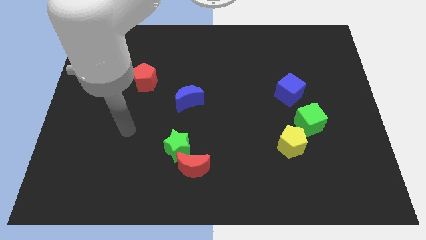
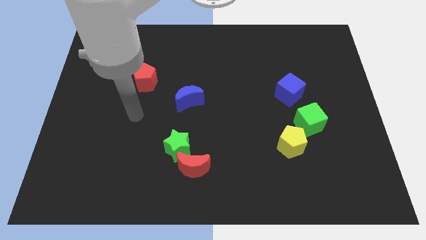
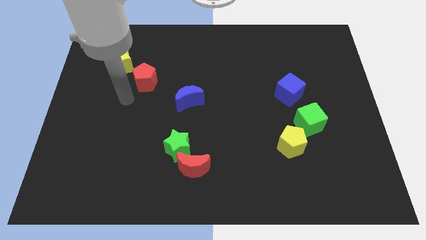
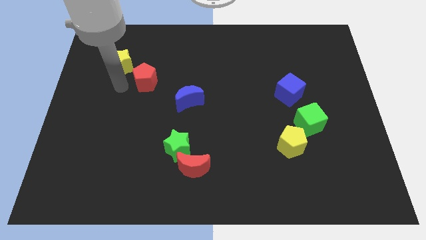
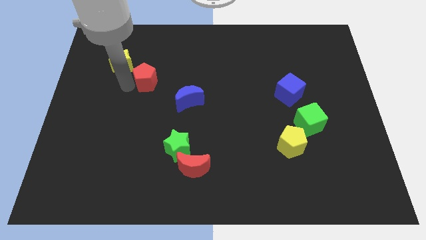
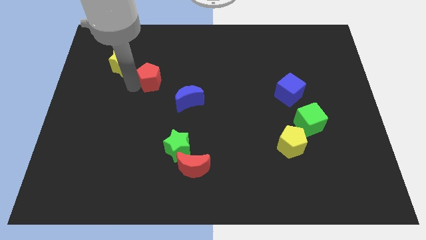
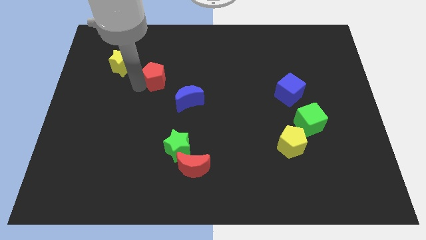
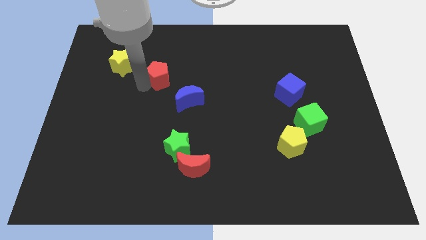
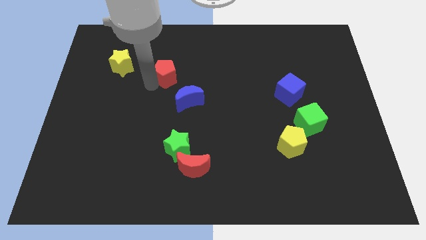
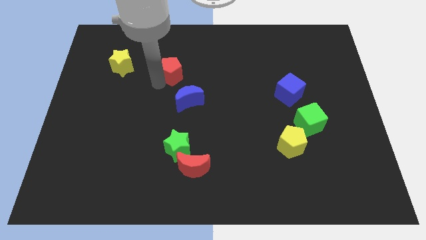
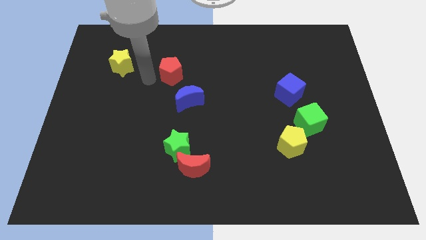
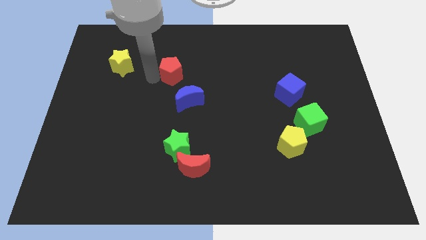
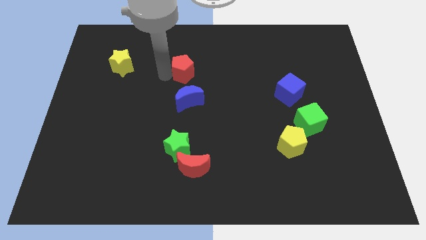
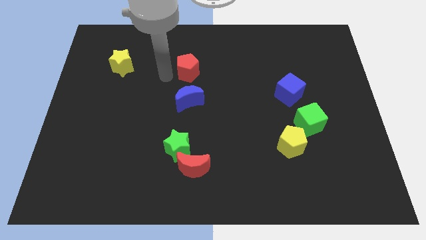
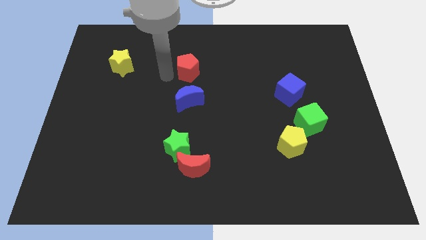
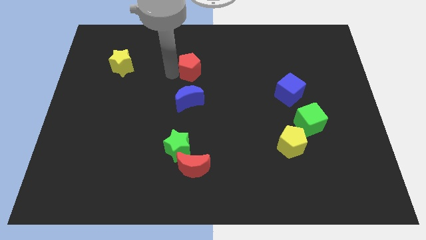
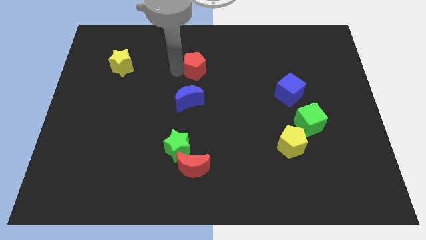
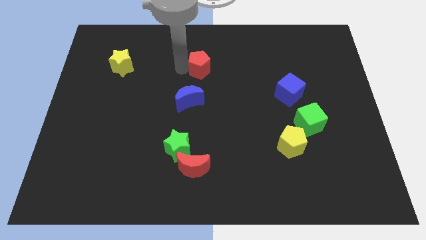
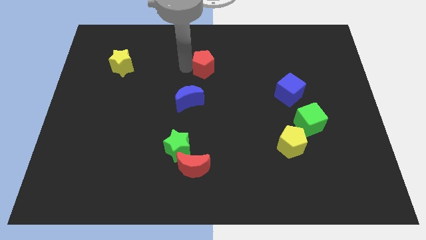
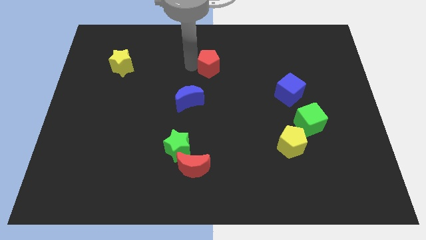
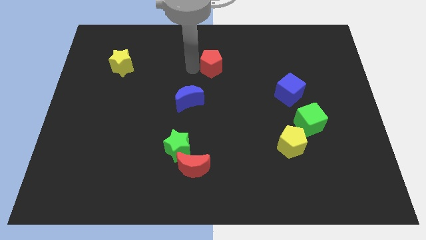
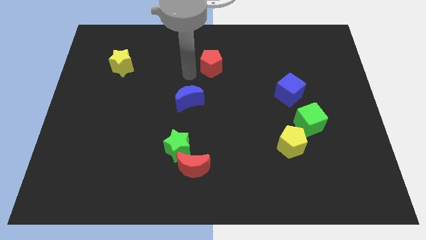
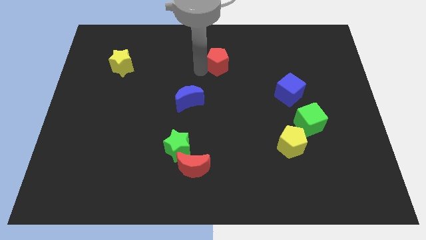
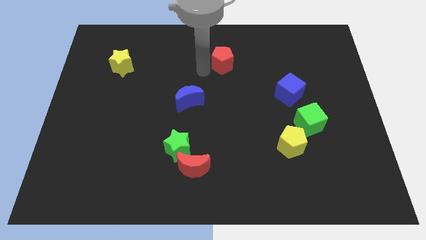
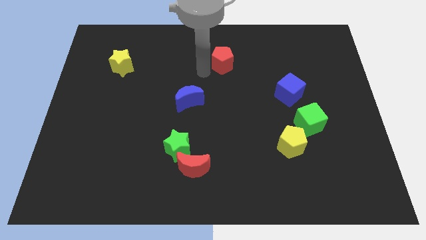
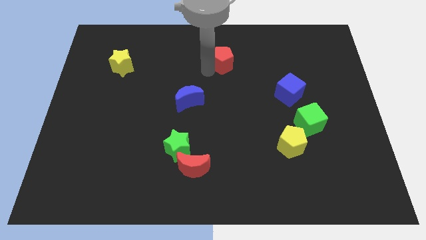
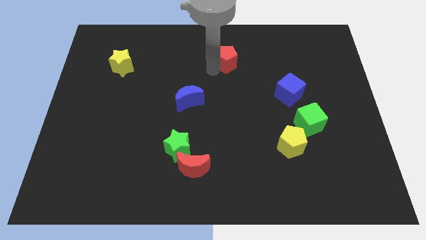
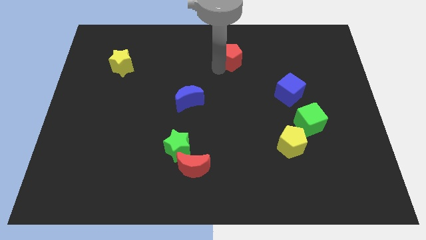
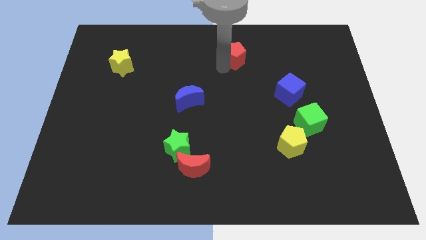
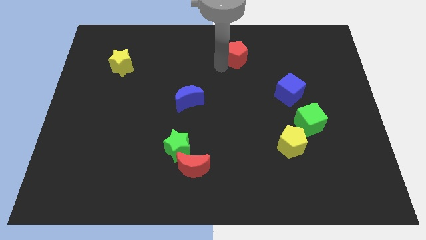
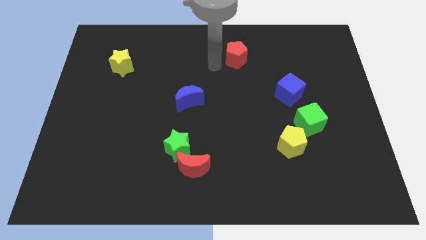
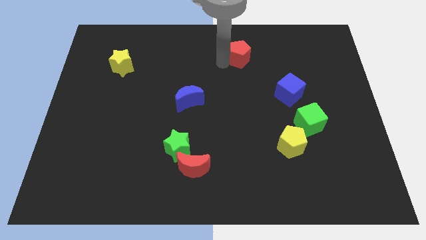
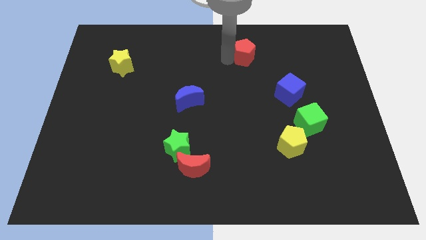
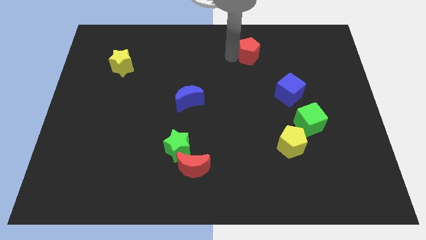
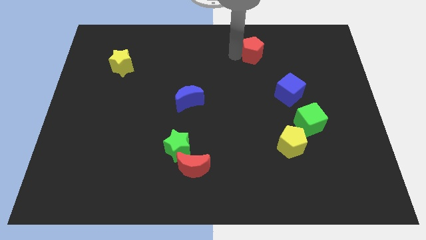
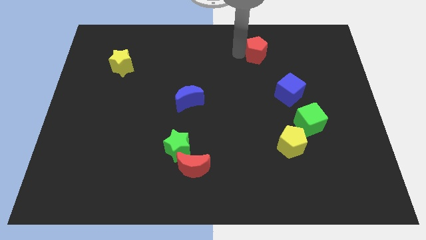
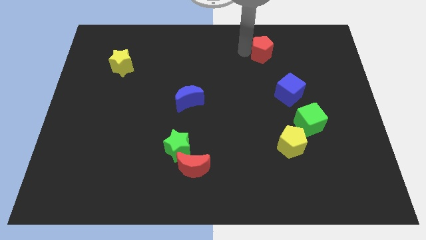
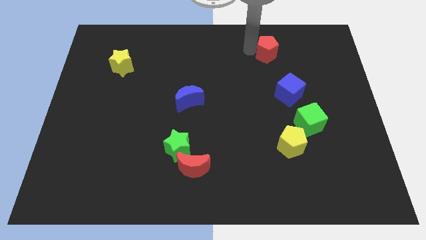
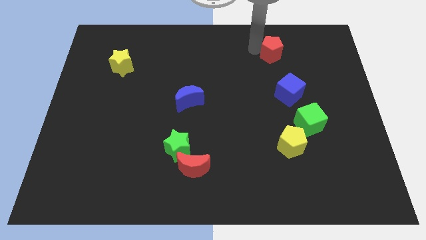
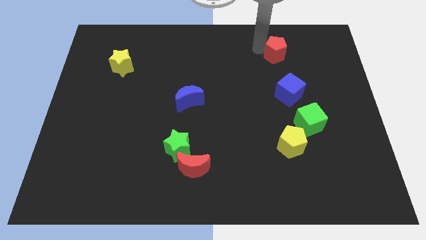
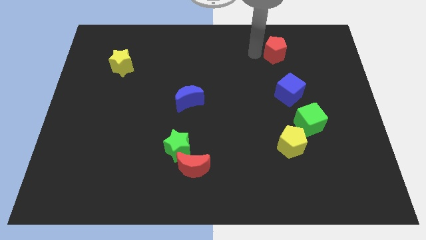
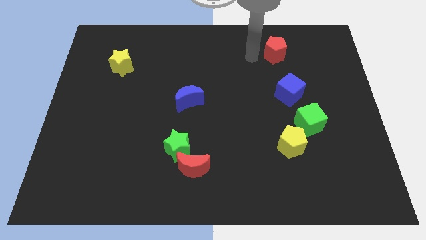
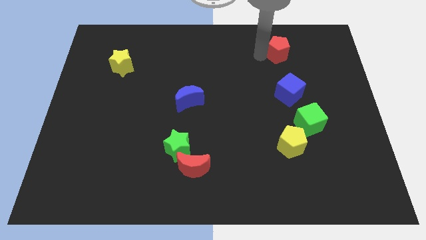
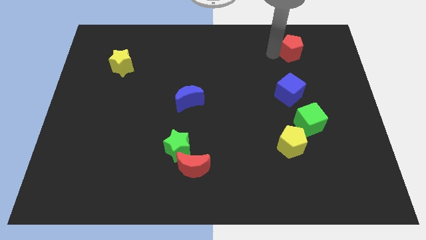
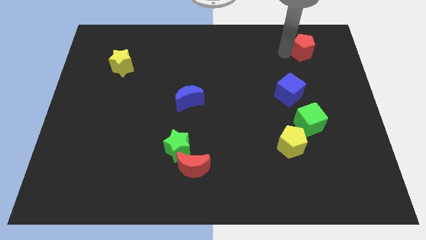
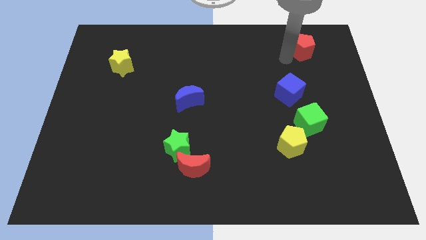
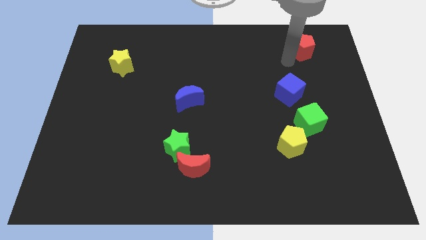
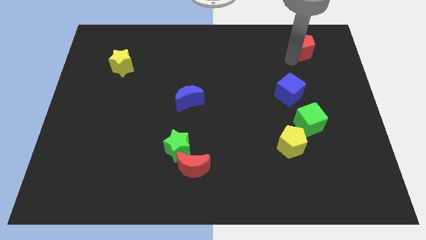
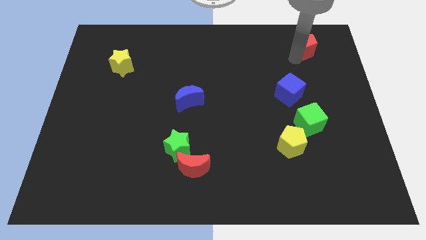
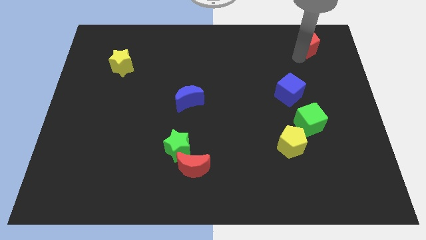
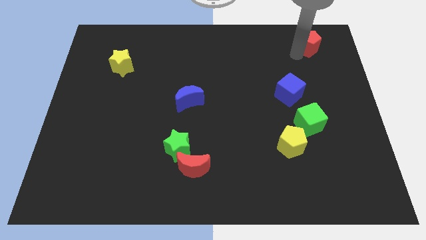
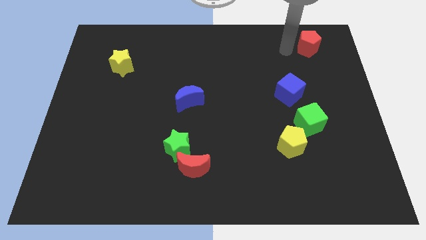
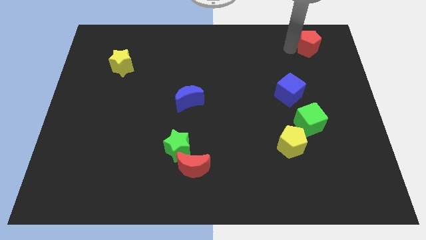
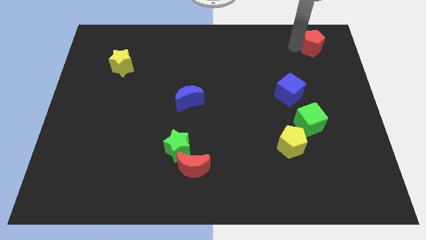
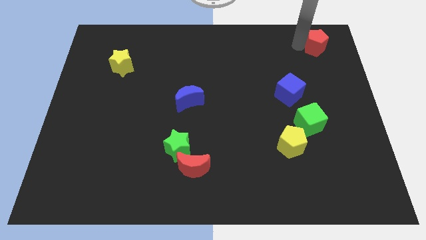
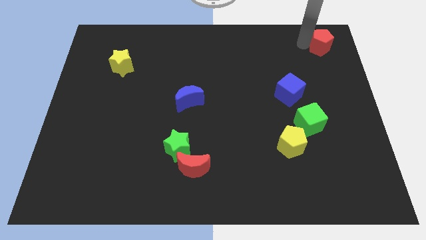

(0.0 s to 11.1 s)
push the red pentagon to the top right
